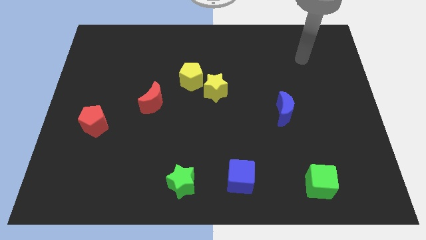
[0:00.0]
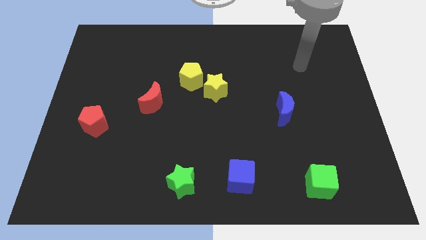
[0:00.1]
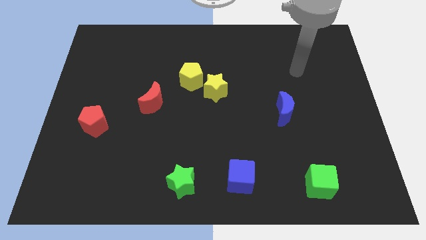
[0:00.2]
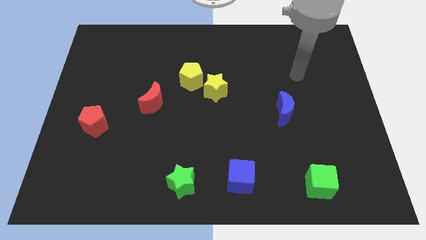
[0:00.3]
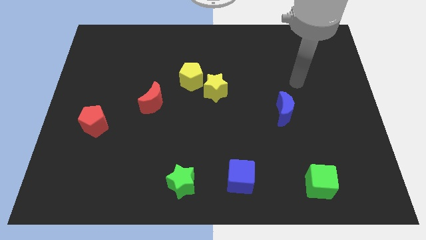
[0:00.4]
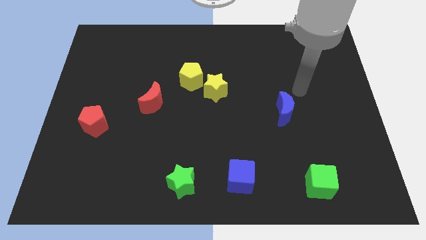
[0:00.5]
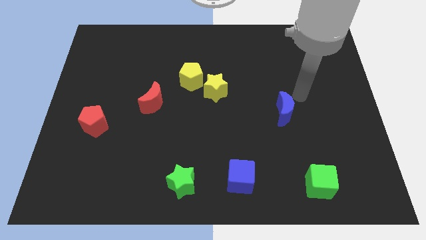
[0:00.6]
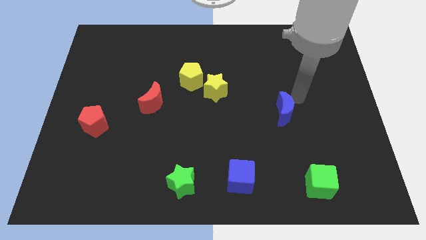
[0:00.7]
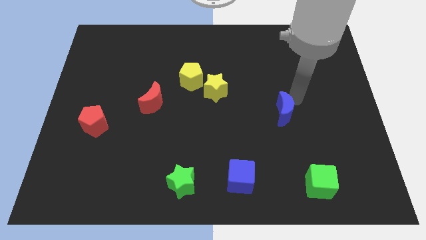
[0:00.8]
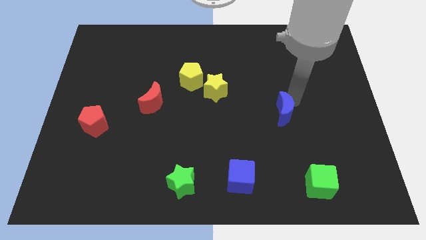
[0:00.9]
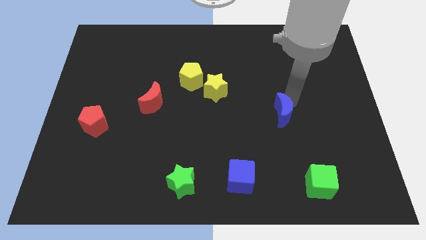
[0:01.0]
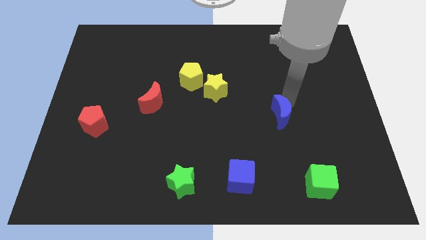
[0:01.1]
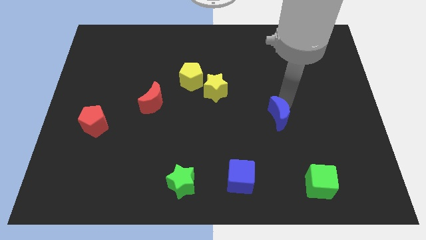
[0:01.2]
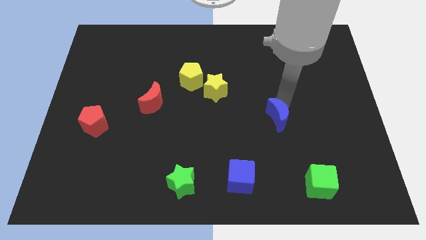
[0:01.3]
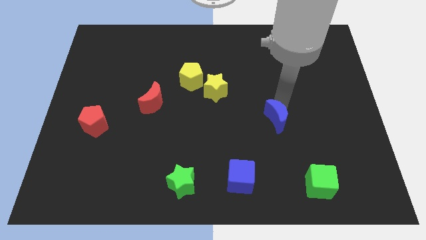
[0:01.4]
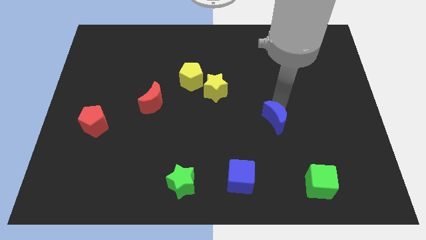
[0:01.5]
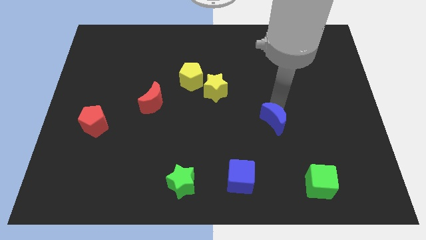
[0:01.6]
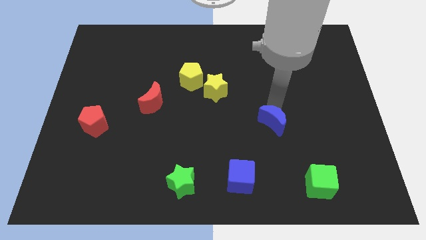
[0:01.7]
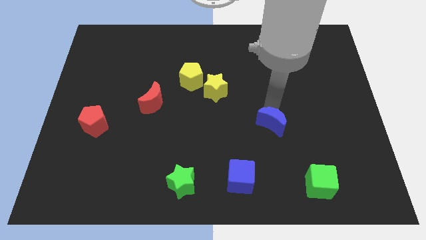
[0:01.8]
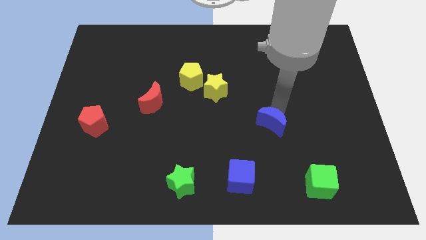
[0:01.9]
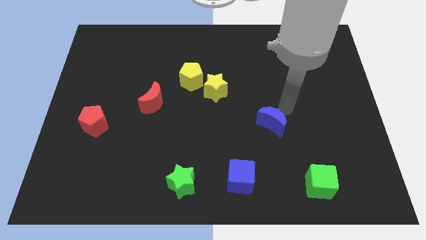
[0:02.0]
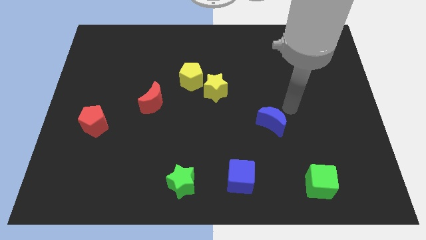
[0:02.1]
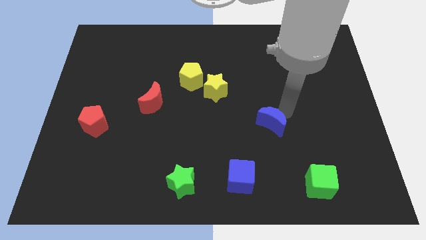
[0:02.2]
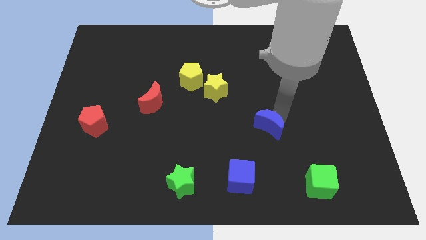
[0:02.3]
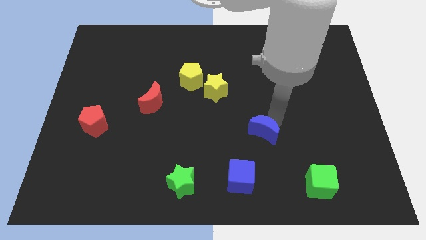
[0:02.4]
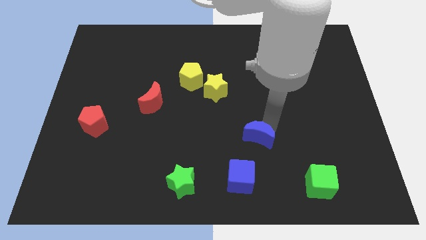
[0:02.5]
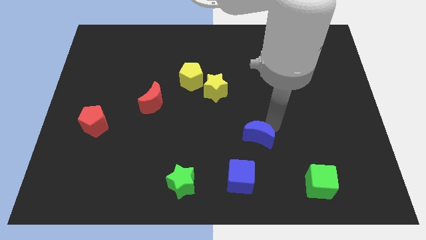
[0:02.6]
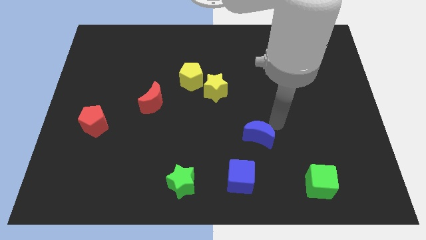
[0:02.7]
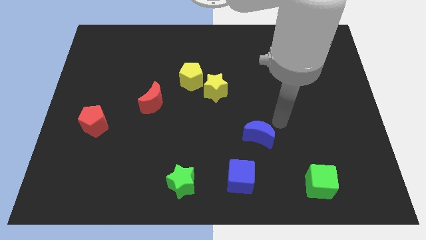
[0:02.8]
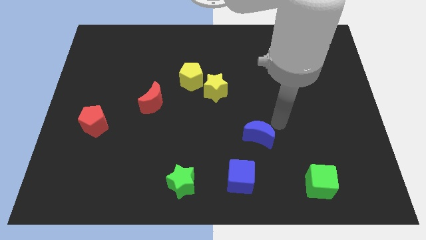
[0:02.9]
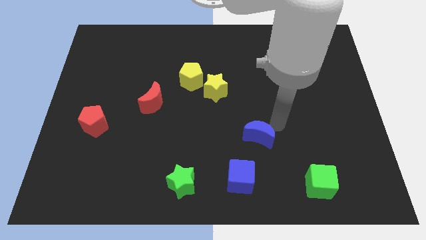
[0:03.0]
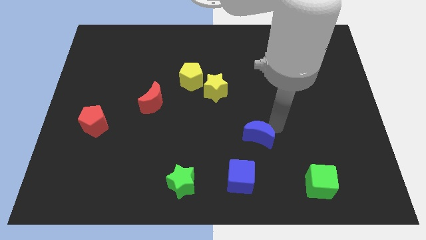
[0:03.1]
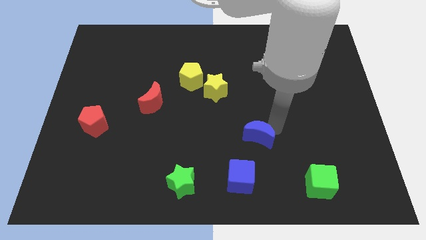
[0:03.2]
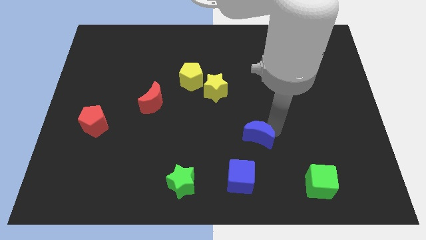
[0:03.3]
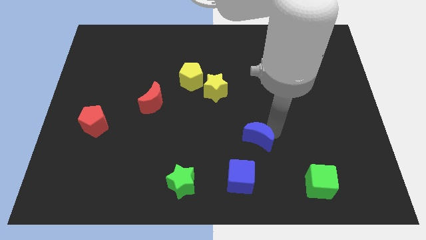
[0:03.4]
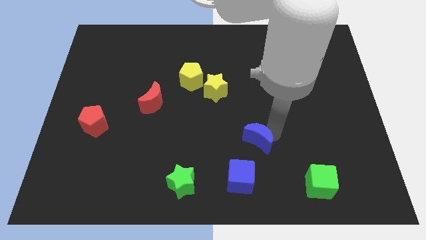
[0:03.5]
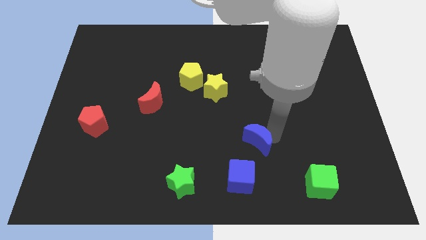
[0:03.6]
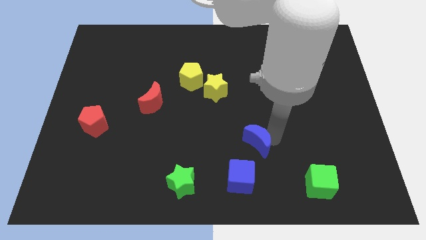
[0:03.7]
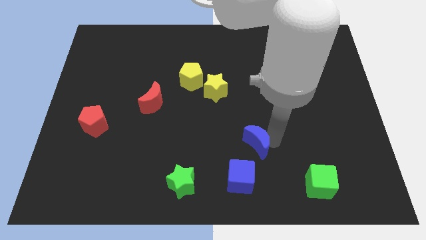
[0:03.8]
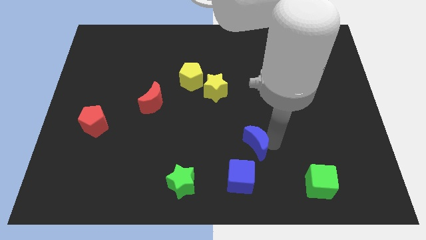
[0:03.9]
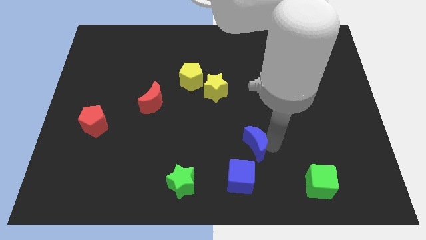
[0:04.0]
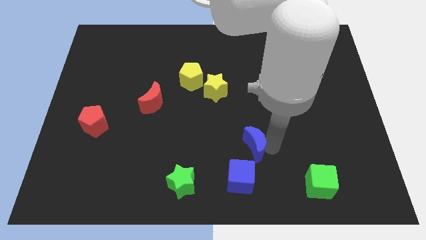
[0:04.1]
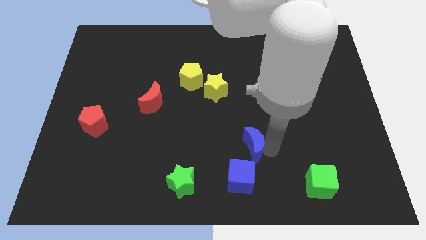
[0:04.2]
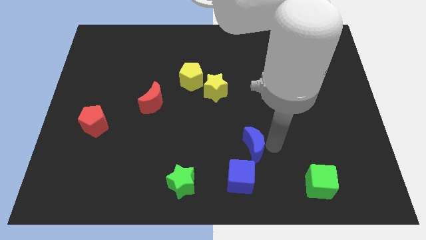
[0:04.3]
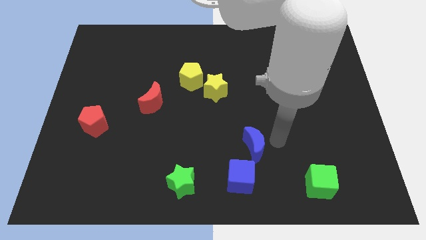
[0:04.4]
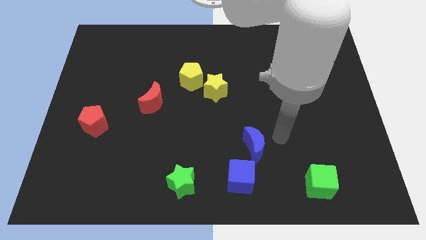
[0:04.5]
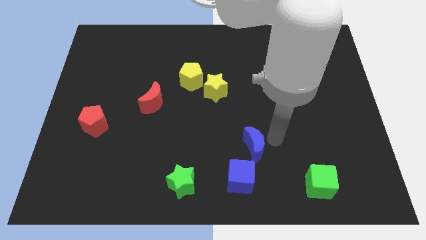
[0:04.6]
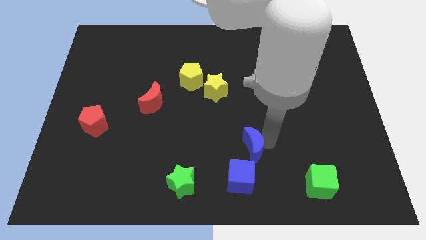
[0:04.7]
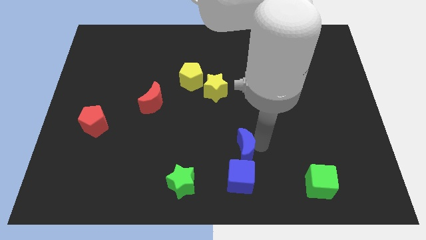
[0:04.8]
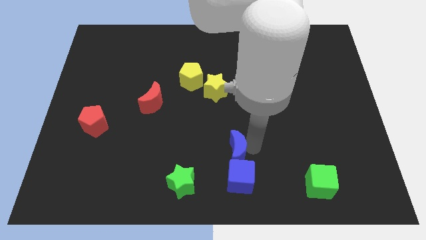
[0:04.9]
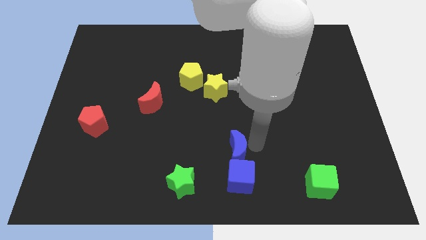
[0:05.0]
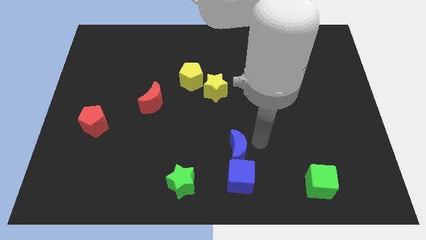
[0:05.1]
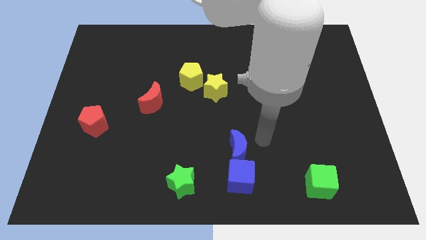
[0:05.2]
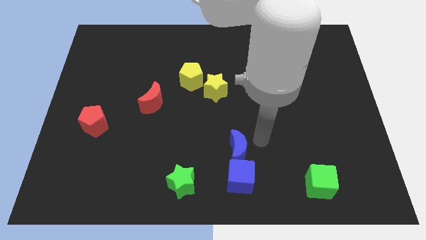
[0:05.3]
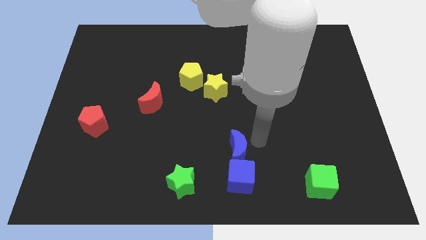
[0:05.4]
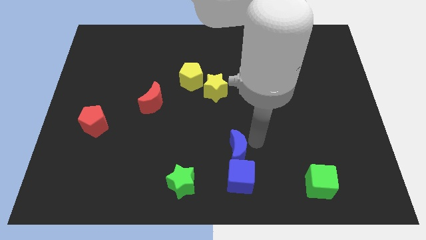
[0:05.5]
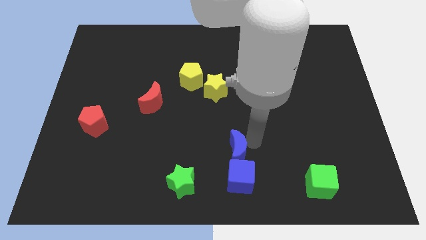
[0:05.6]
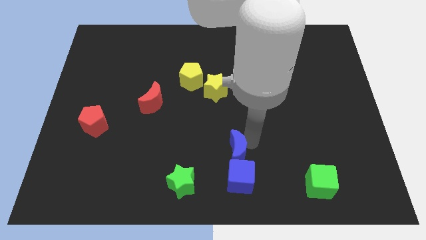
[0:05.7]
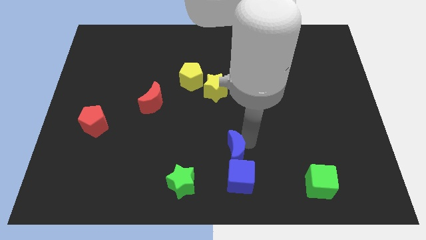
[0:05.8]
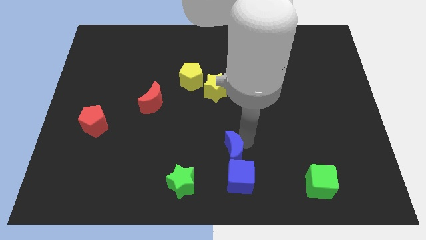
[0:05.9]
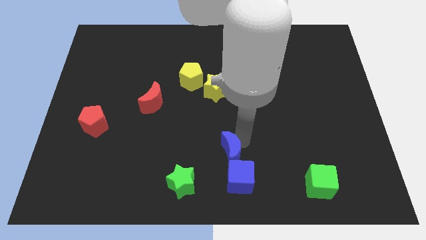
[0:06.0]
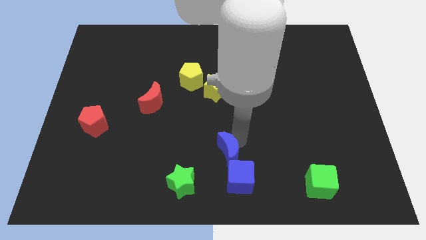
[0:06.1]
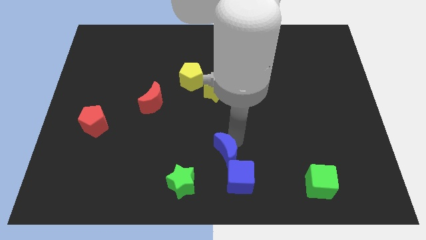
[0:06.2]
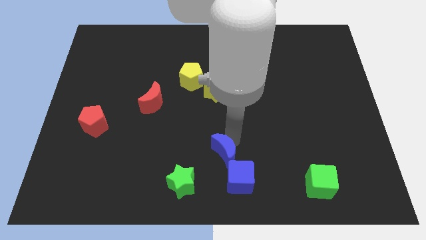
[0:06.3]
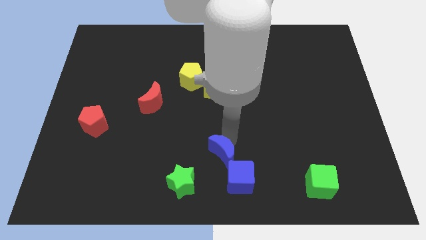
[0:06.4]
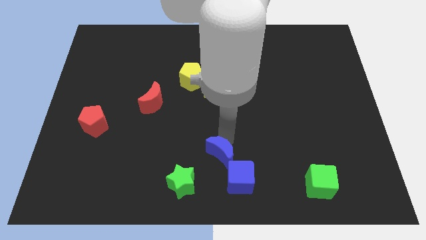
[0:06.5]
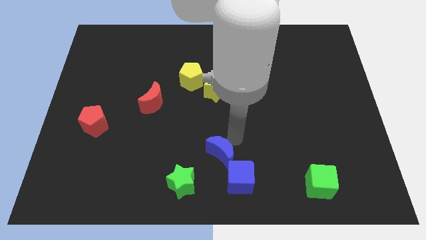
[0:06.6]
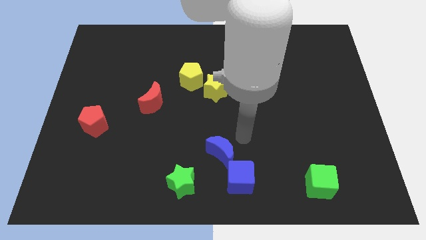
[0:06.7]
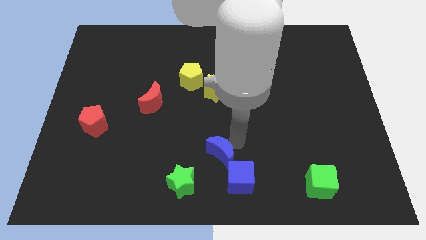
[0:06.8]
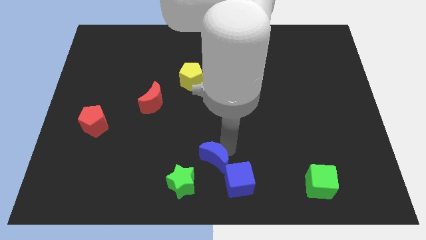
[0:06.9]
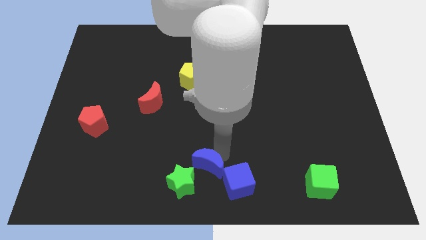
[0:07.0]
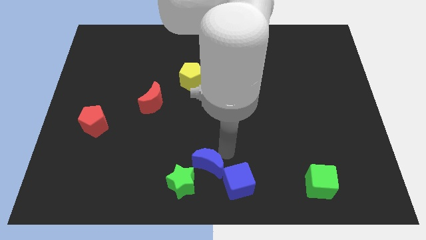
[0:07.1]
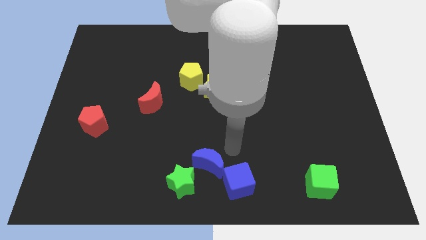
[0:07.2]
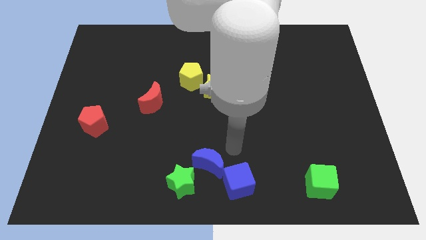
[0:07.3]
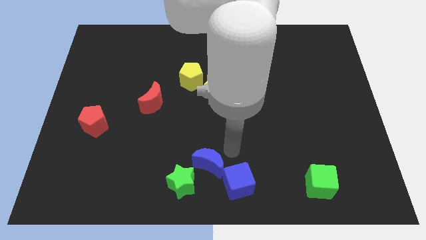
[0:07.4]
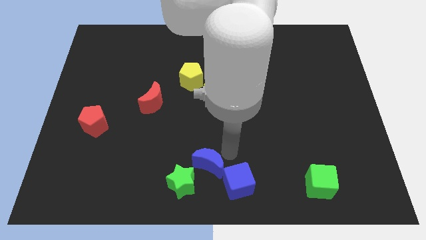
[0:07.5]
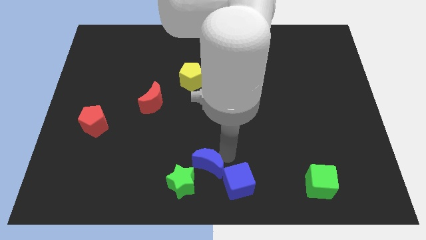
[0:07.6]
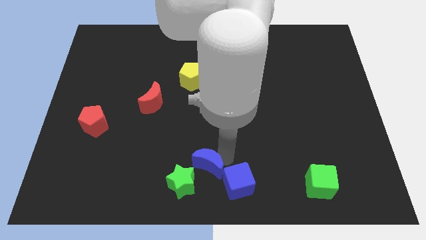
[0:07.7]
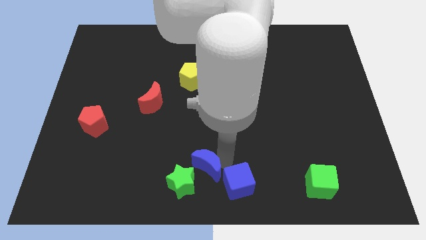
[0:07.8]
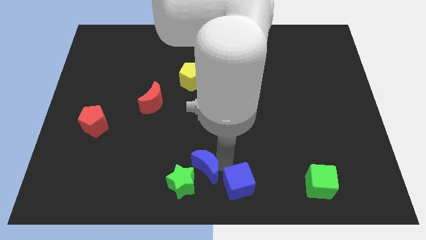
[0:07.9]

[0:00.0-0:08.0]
push the blue moon to the green star
